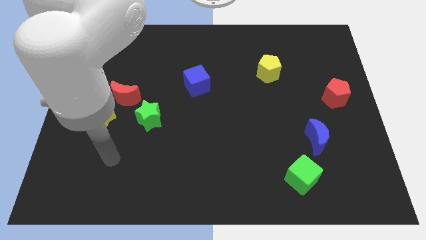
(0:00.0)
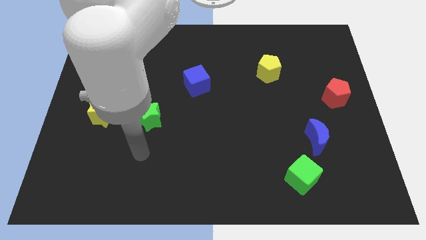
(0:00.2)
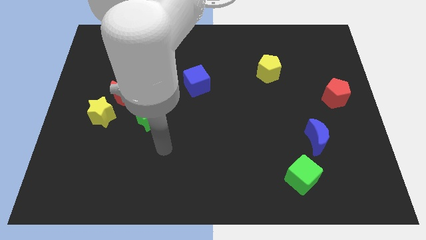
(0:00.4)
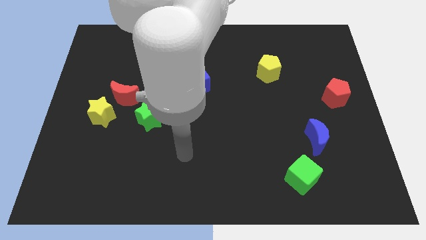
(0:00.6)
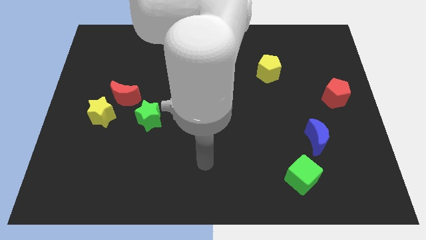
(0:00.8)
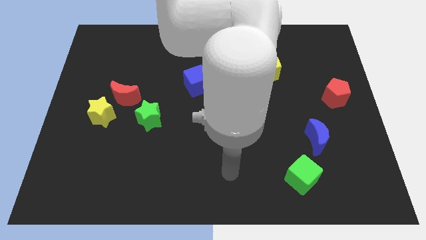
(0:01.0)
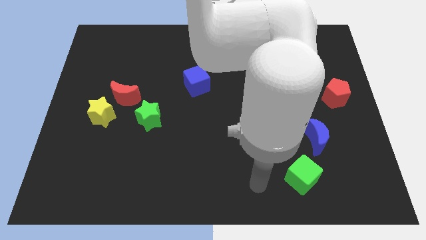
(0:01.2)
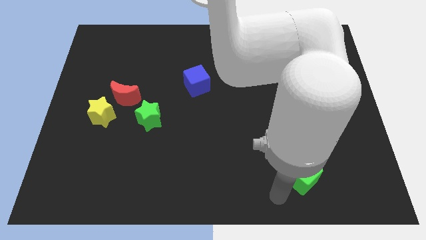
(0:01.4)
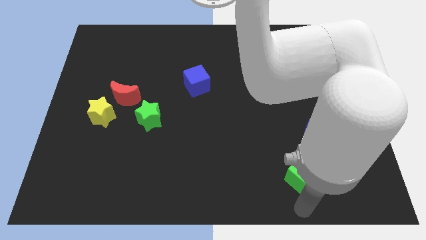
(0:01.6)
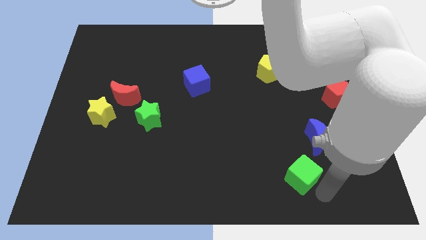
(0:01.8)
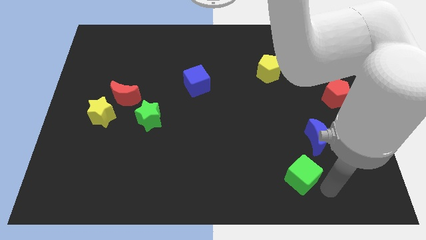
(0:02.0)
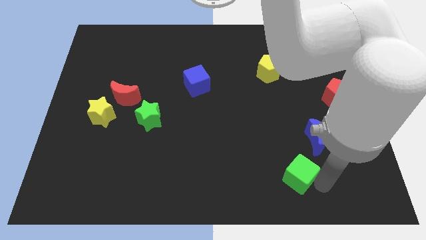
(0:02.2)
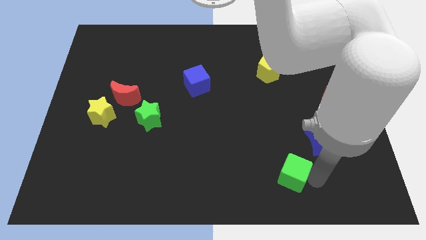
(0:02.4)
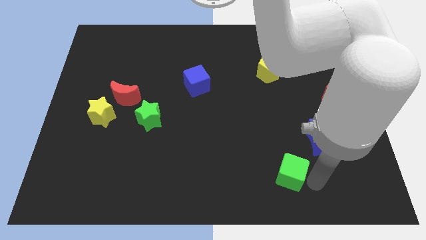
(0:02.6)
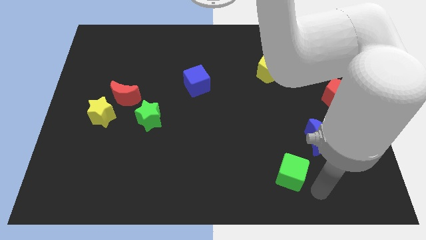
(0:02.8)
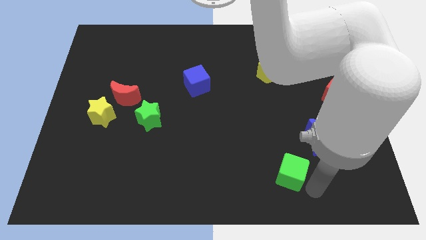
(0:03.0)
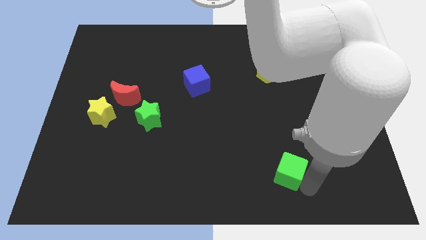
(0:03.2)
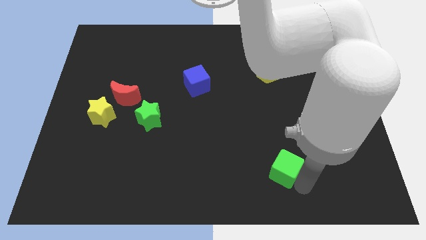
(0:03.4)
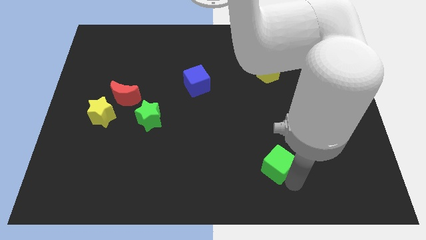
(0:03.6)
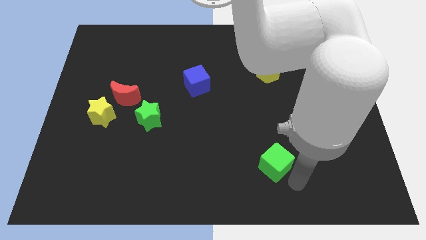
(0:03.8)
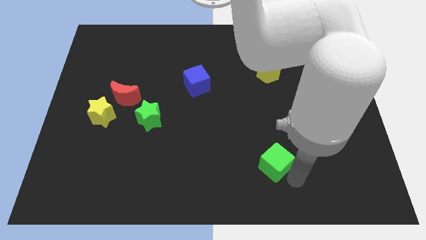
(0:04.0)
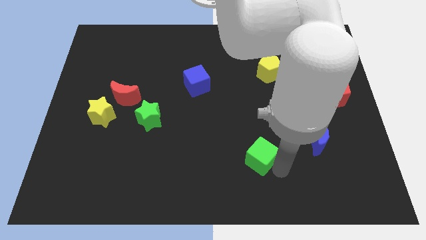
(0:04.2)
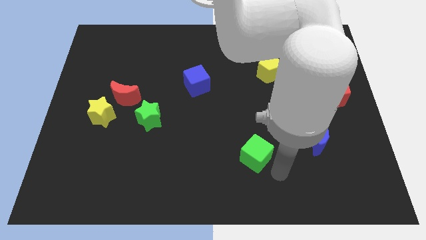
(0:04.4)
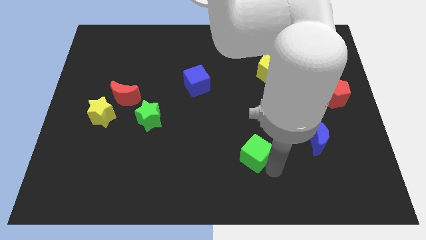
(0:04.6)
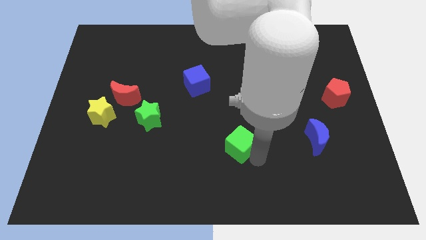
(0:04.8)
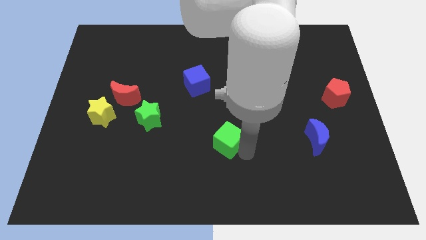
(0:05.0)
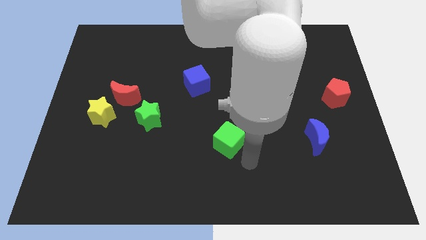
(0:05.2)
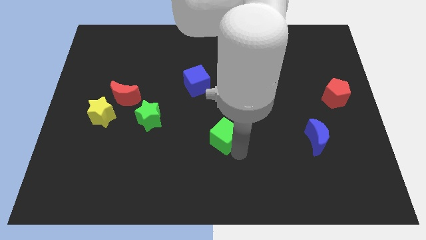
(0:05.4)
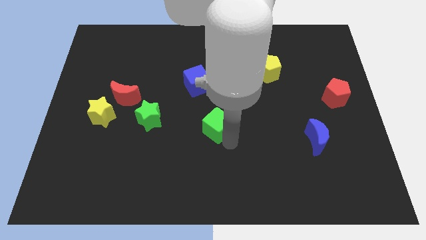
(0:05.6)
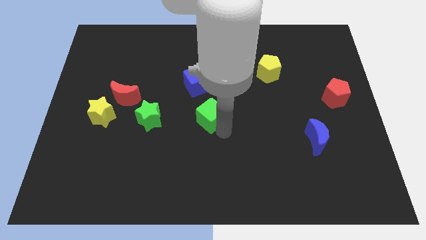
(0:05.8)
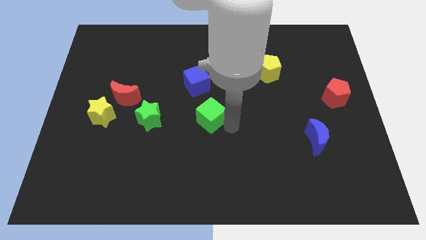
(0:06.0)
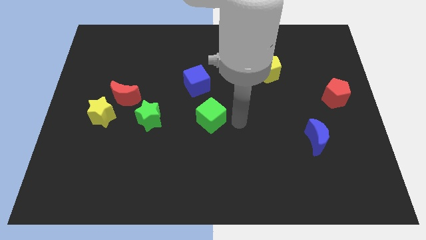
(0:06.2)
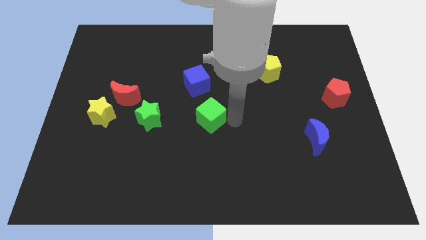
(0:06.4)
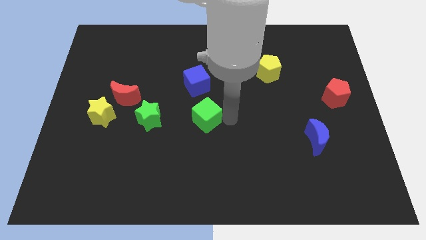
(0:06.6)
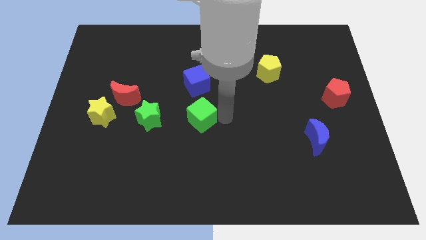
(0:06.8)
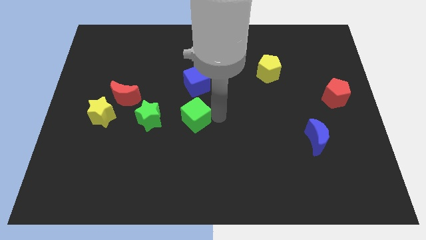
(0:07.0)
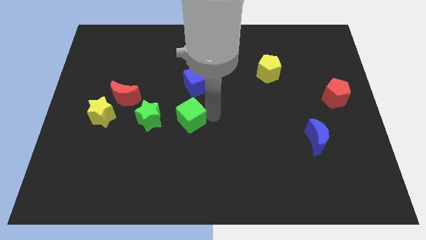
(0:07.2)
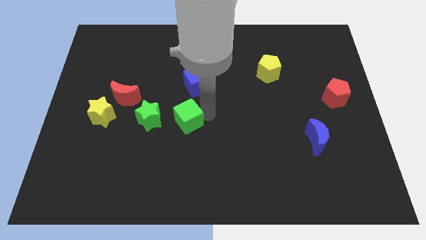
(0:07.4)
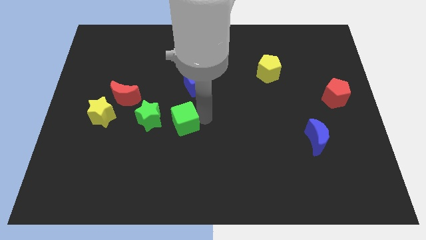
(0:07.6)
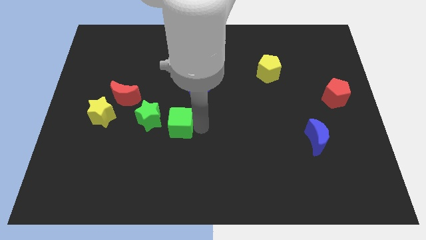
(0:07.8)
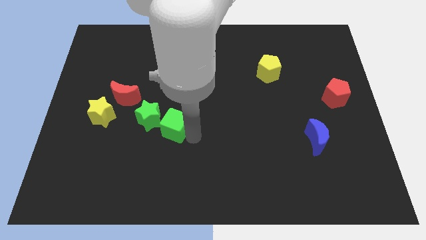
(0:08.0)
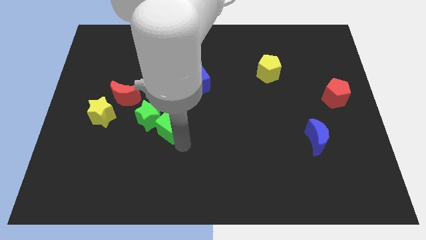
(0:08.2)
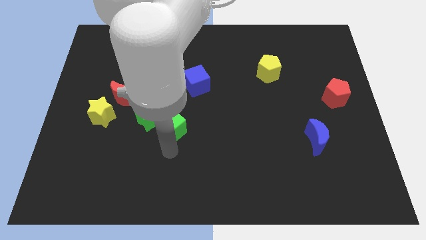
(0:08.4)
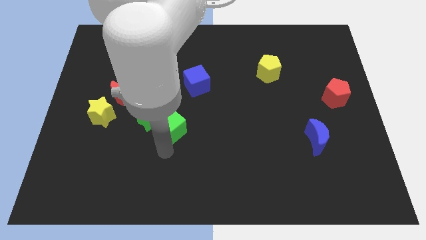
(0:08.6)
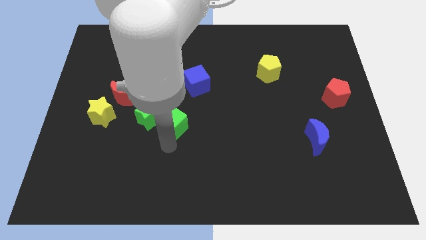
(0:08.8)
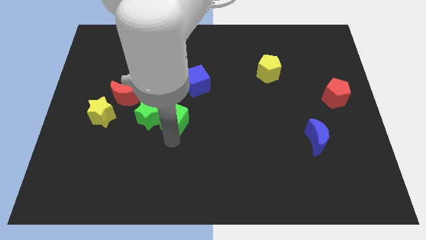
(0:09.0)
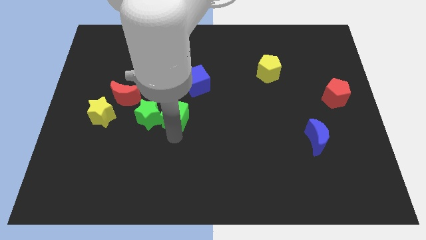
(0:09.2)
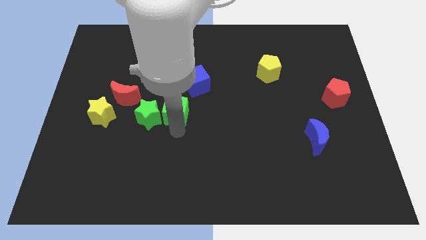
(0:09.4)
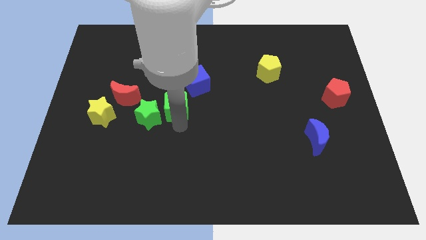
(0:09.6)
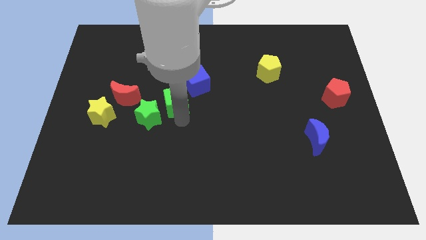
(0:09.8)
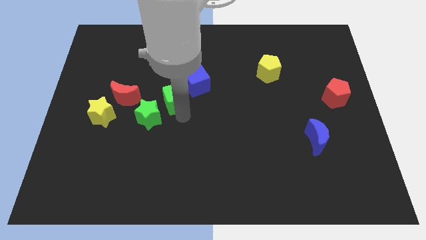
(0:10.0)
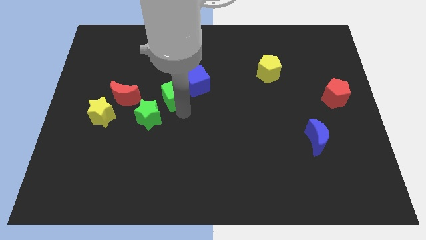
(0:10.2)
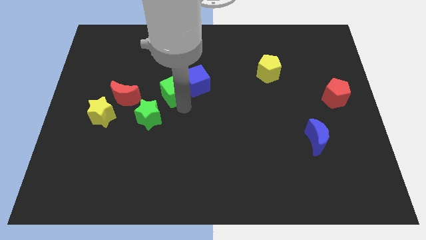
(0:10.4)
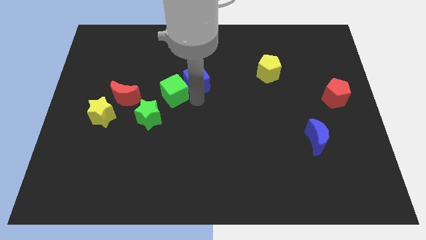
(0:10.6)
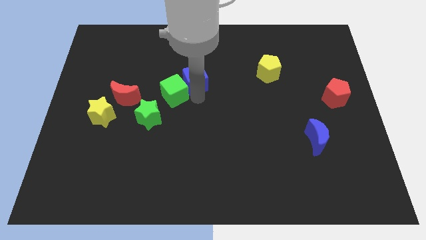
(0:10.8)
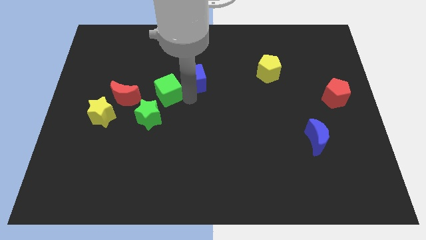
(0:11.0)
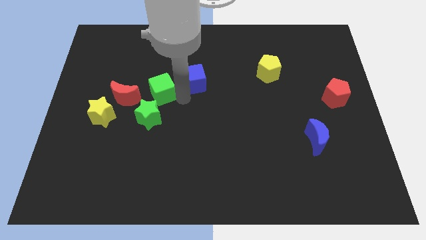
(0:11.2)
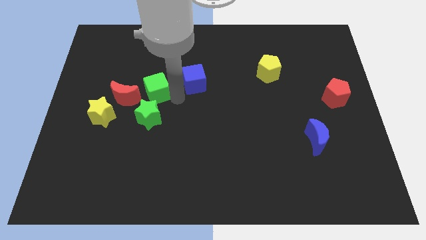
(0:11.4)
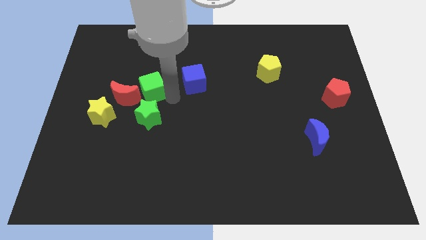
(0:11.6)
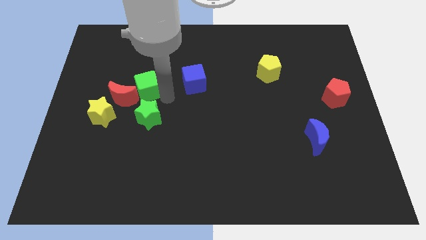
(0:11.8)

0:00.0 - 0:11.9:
slide the green cube to the top right side of the yellow star
